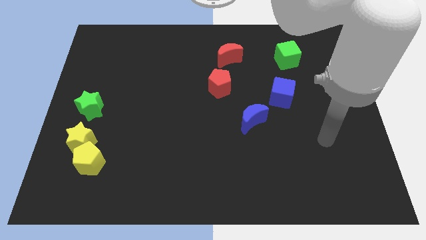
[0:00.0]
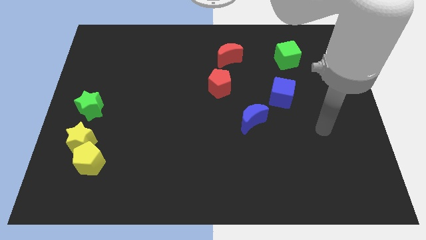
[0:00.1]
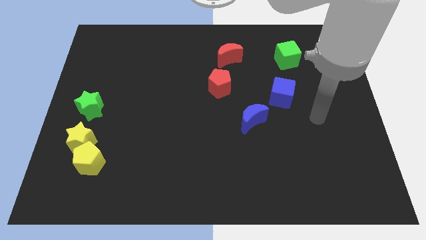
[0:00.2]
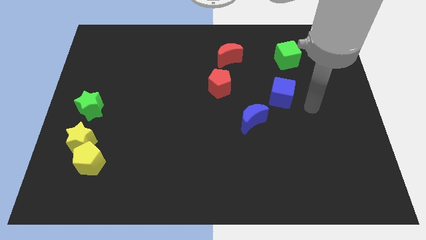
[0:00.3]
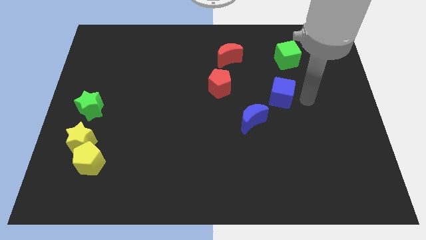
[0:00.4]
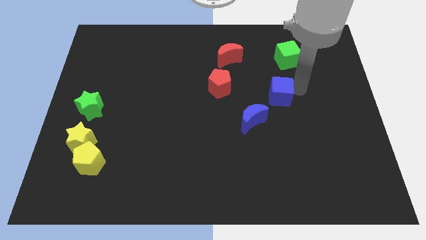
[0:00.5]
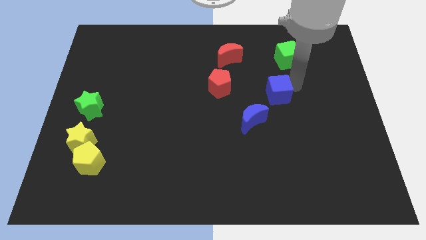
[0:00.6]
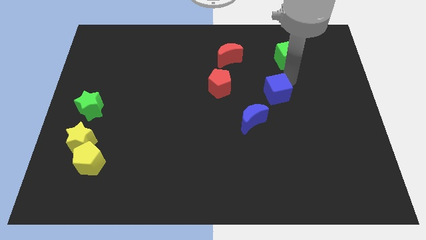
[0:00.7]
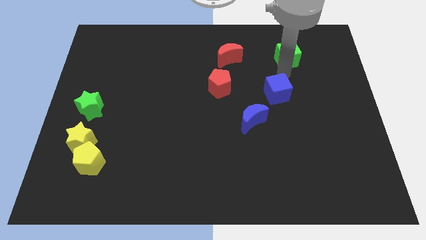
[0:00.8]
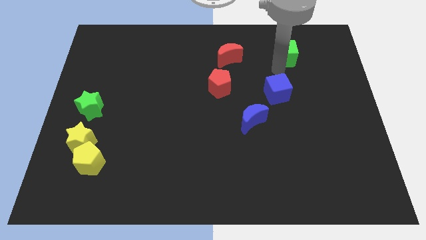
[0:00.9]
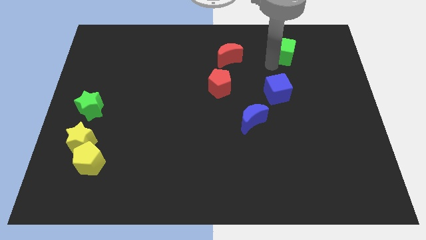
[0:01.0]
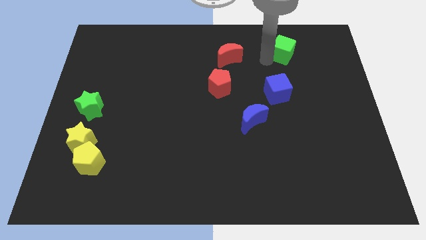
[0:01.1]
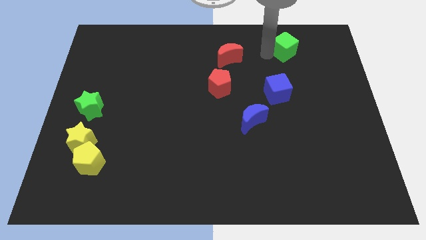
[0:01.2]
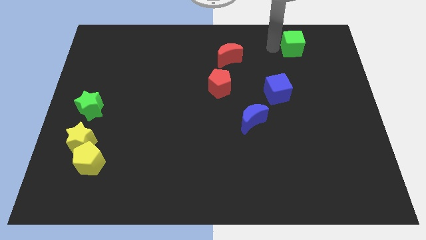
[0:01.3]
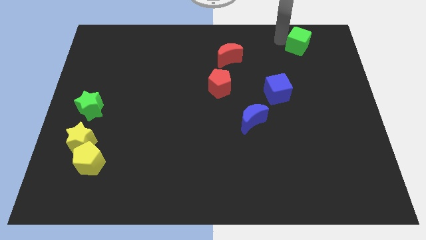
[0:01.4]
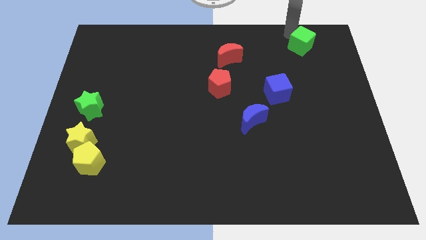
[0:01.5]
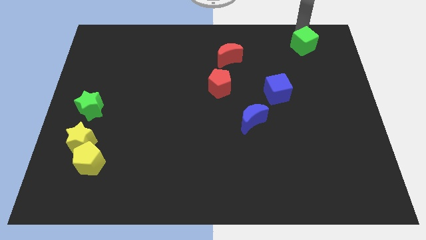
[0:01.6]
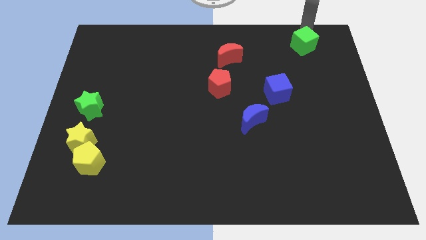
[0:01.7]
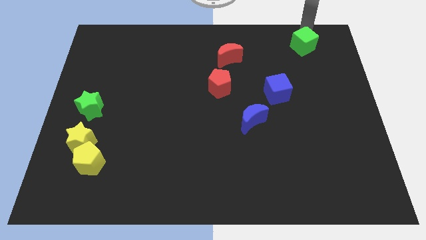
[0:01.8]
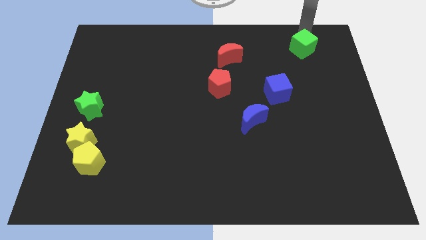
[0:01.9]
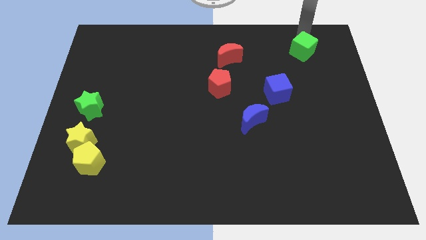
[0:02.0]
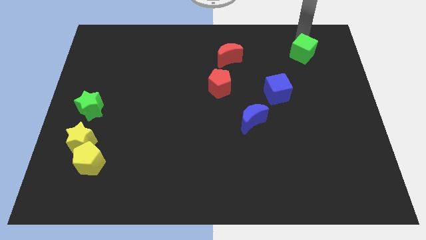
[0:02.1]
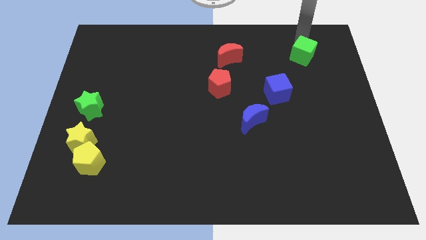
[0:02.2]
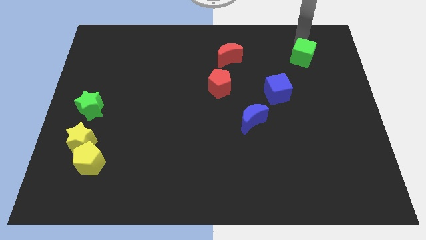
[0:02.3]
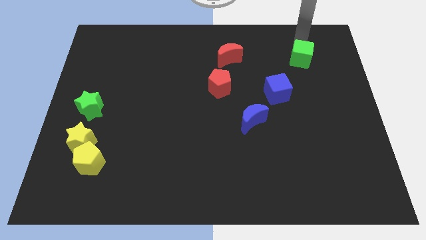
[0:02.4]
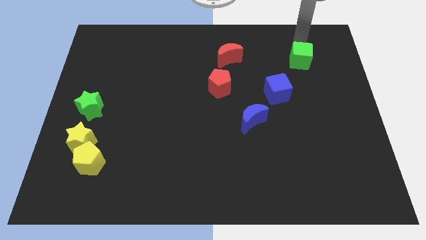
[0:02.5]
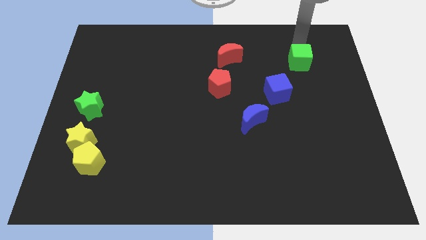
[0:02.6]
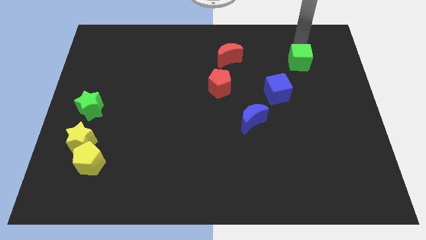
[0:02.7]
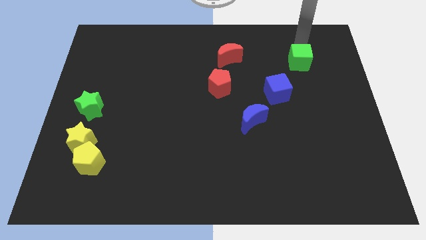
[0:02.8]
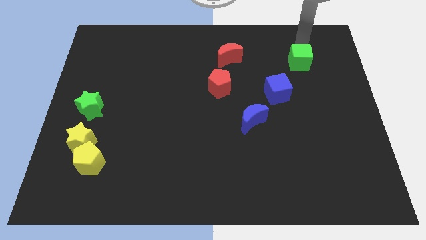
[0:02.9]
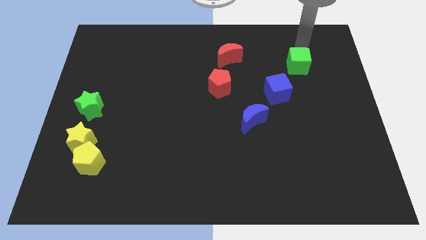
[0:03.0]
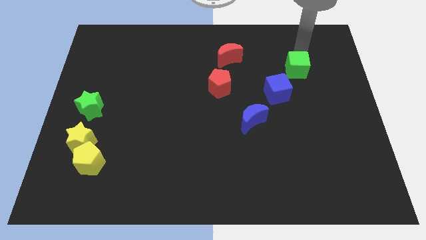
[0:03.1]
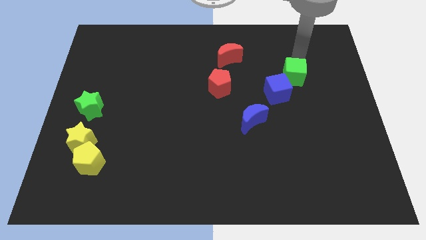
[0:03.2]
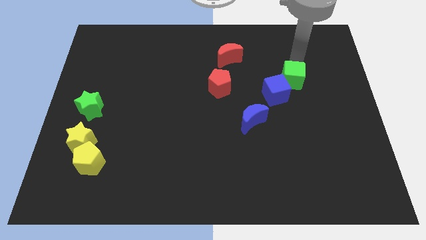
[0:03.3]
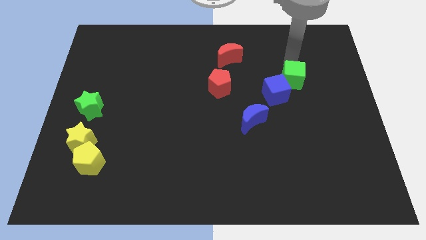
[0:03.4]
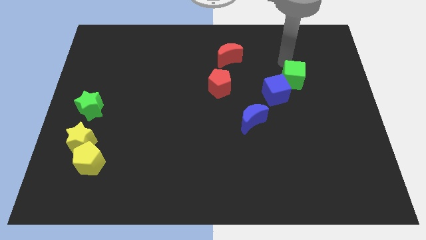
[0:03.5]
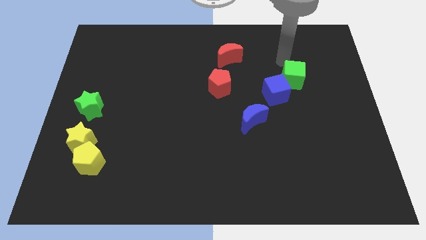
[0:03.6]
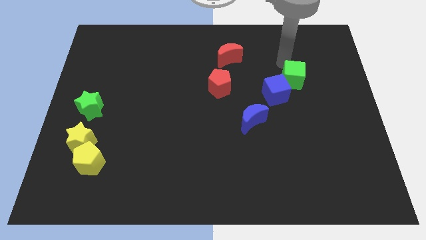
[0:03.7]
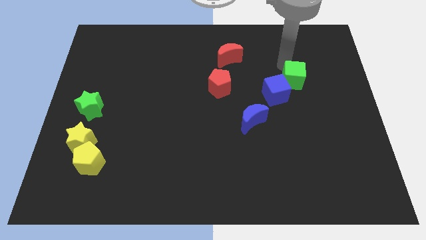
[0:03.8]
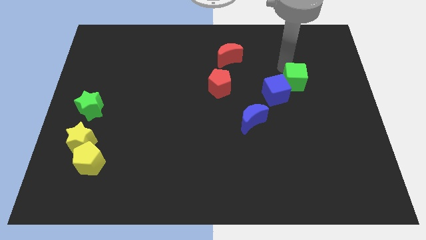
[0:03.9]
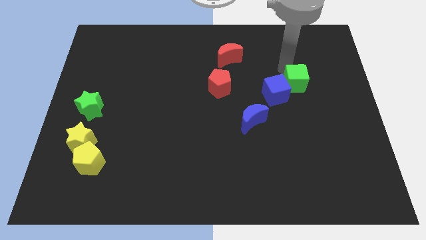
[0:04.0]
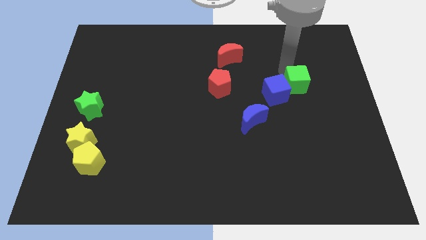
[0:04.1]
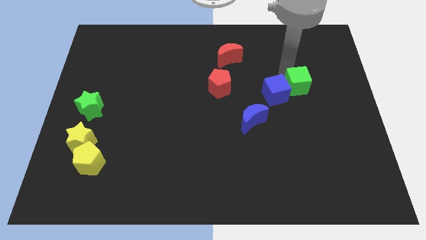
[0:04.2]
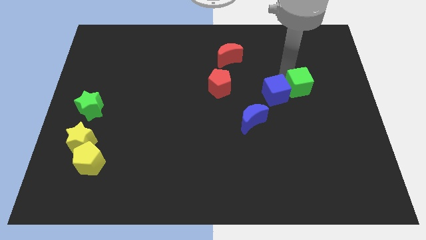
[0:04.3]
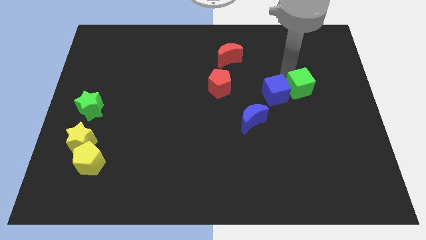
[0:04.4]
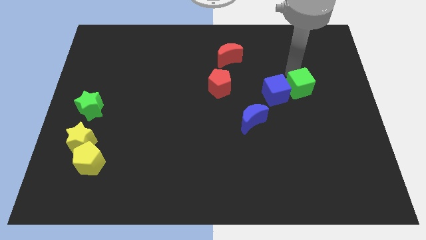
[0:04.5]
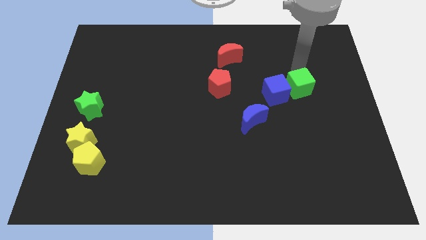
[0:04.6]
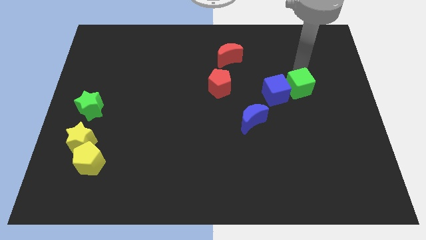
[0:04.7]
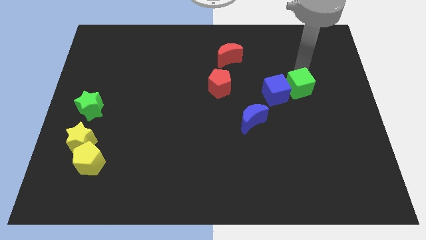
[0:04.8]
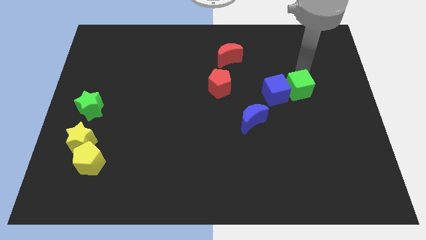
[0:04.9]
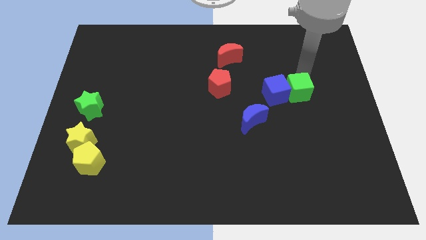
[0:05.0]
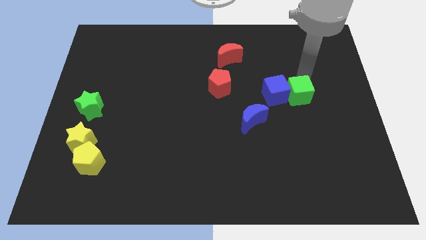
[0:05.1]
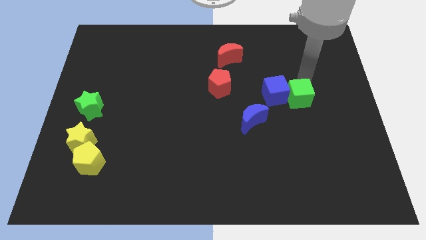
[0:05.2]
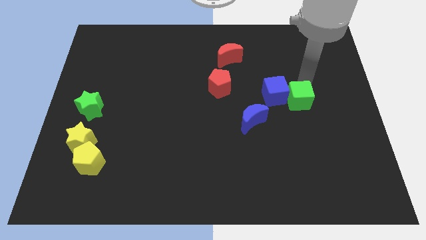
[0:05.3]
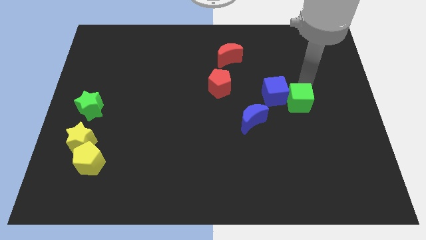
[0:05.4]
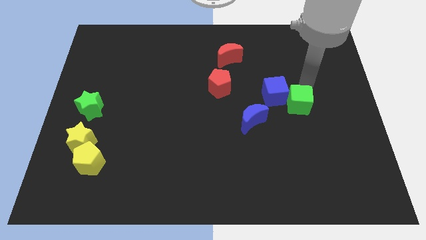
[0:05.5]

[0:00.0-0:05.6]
put the green cube just right of the blue moon

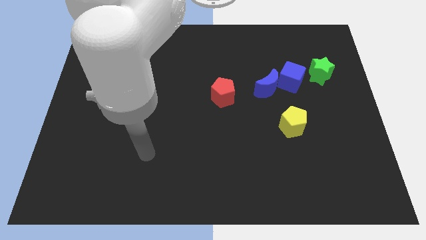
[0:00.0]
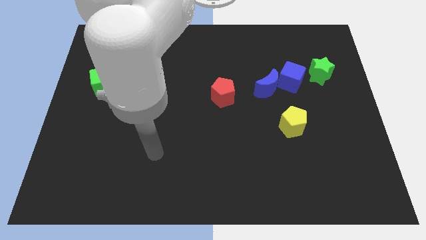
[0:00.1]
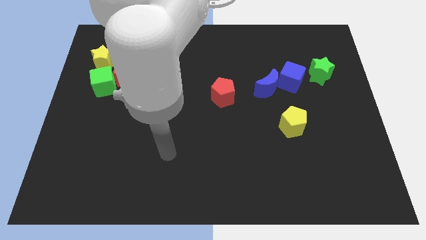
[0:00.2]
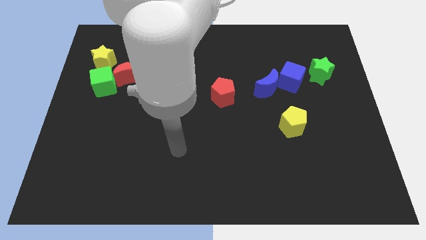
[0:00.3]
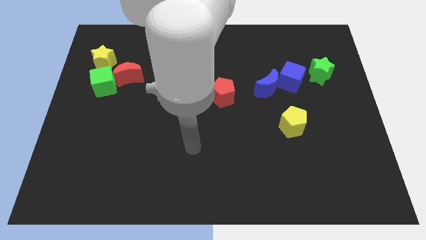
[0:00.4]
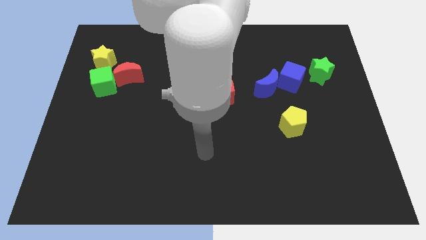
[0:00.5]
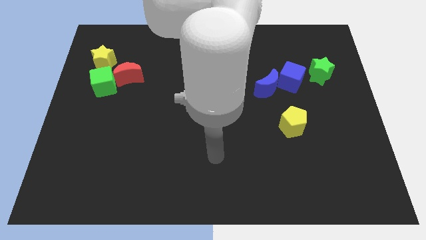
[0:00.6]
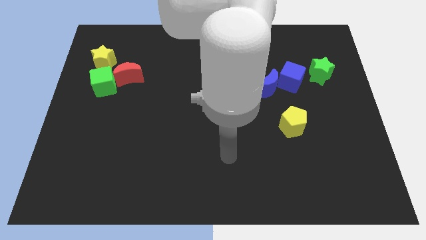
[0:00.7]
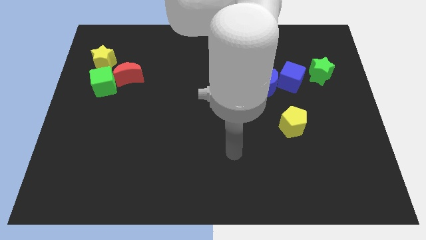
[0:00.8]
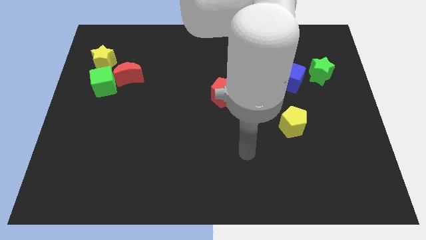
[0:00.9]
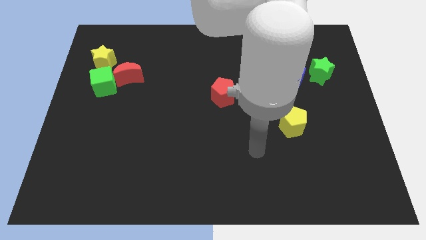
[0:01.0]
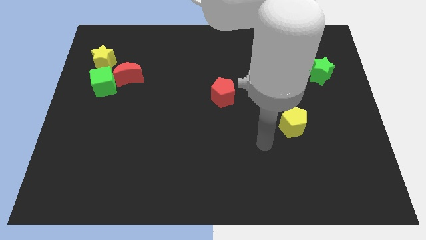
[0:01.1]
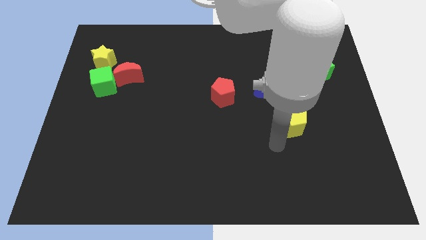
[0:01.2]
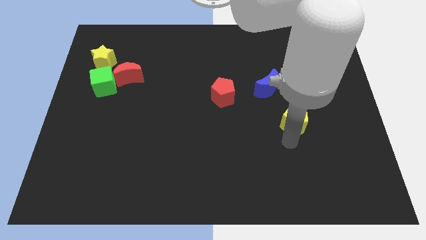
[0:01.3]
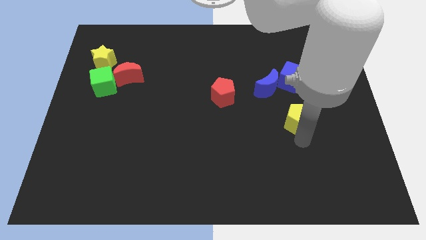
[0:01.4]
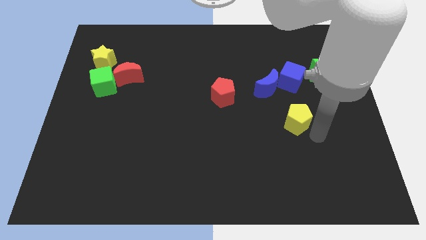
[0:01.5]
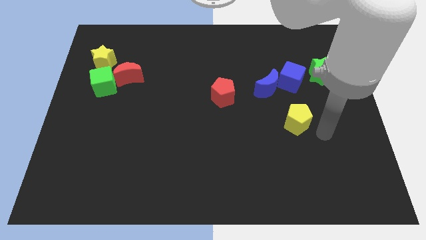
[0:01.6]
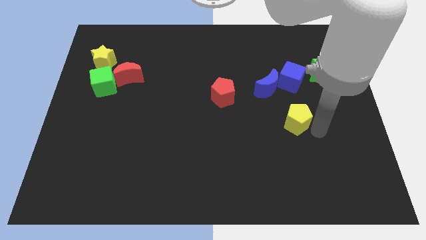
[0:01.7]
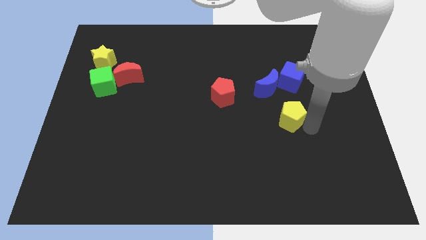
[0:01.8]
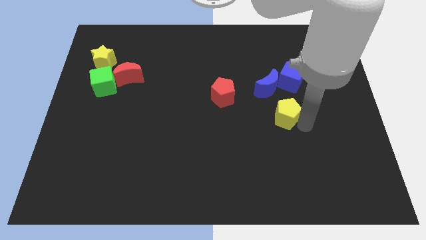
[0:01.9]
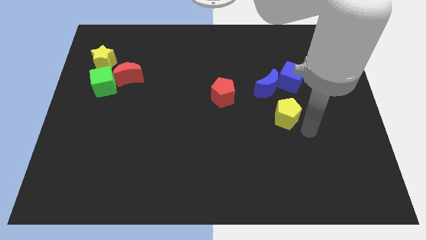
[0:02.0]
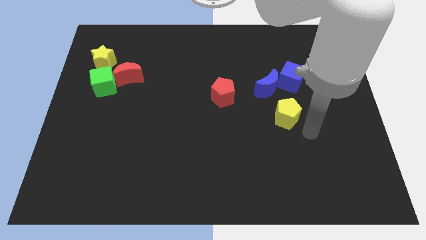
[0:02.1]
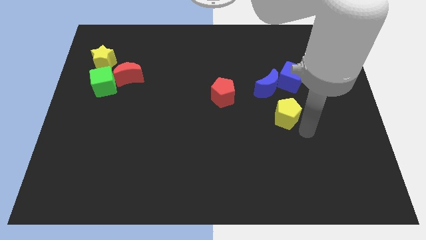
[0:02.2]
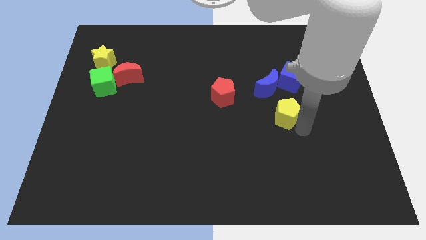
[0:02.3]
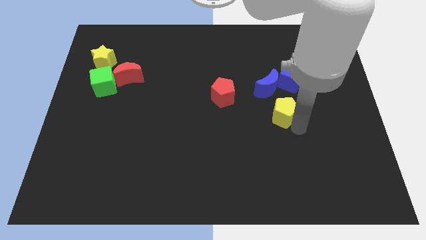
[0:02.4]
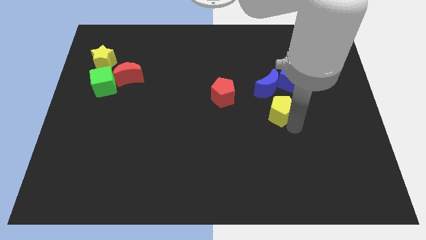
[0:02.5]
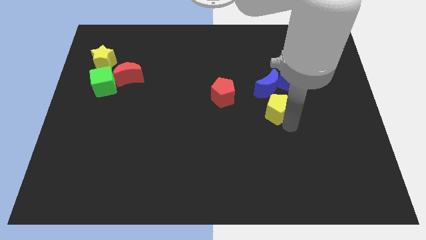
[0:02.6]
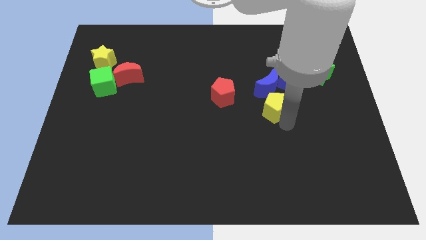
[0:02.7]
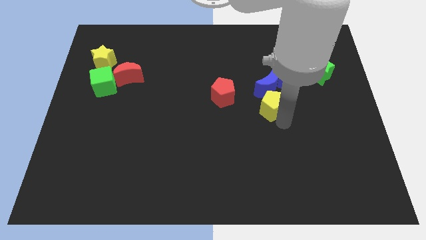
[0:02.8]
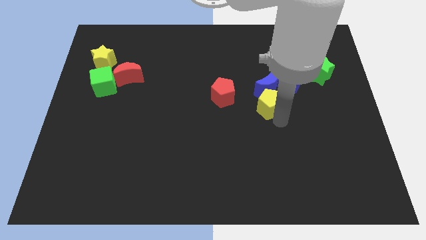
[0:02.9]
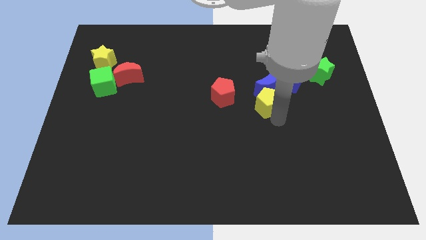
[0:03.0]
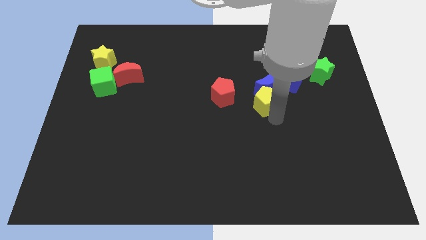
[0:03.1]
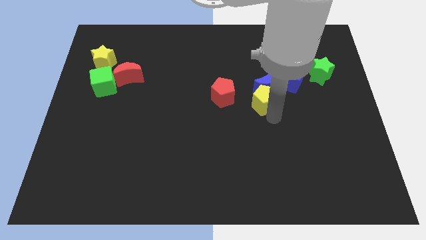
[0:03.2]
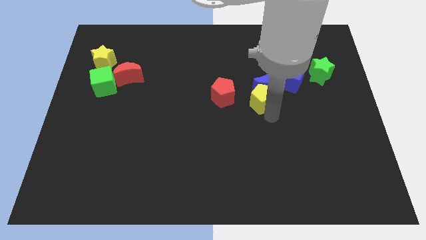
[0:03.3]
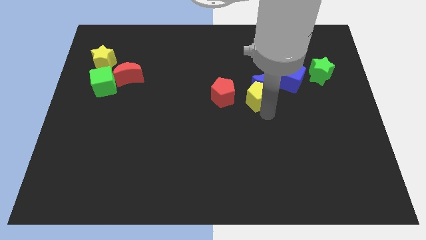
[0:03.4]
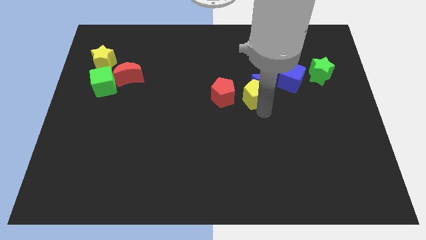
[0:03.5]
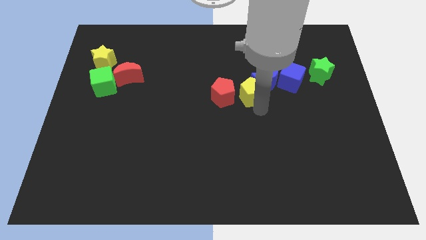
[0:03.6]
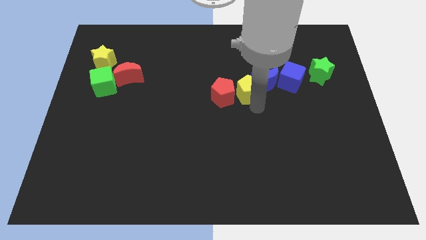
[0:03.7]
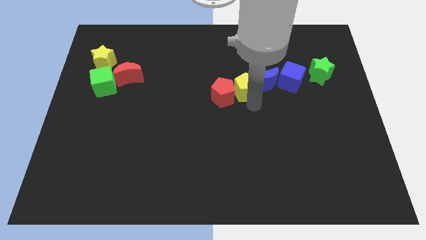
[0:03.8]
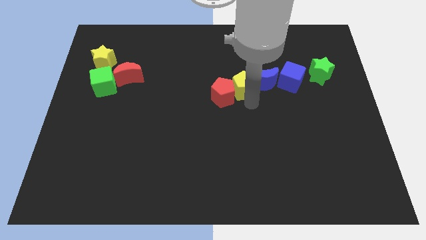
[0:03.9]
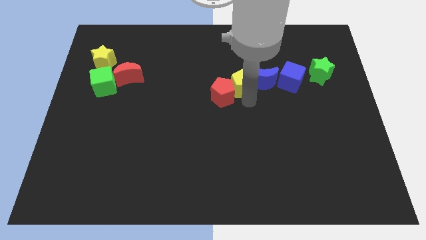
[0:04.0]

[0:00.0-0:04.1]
slide the yellow pentagon to the top left side of the blue moon
